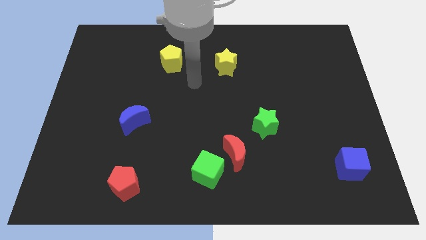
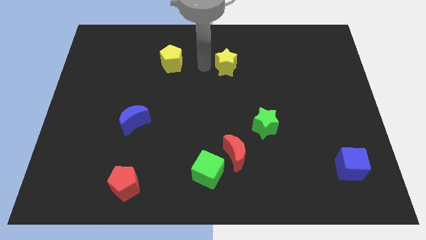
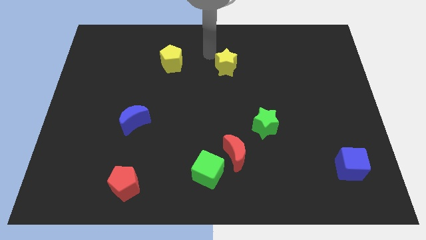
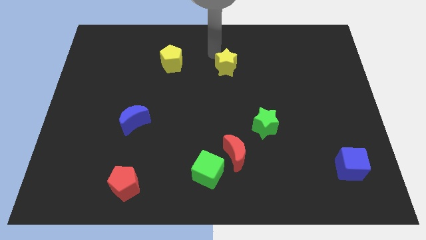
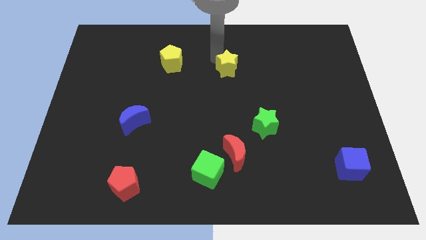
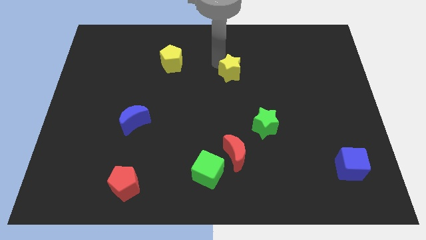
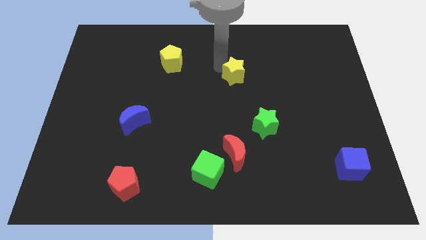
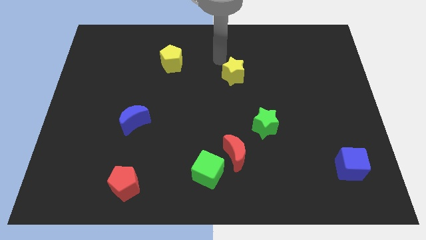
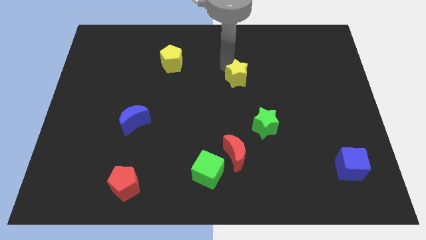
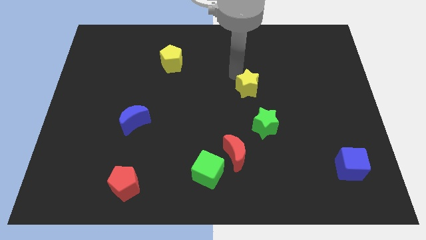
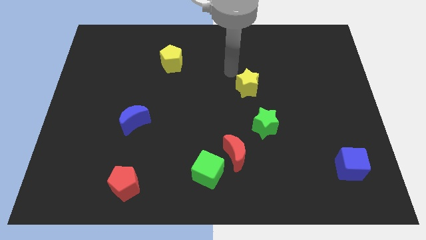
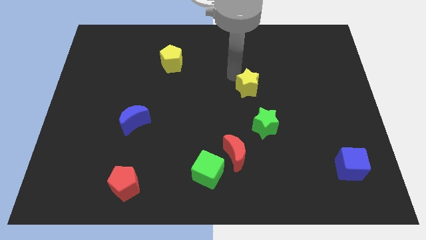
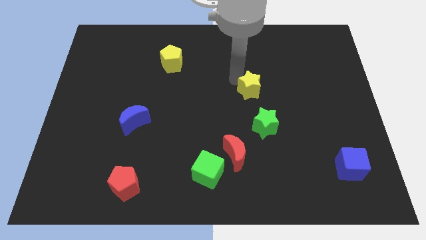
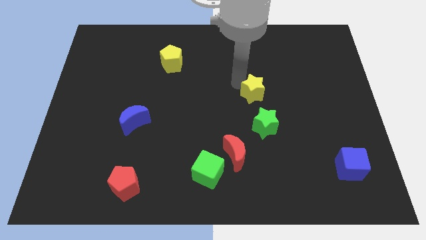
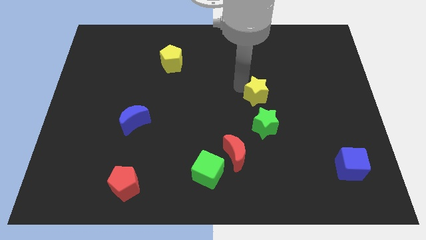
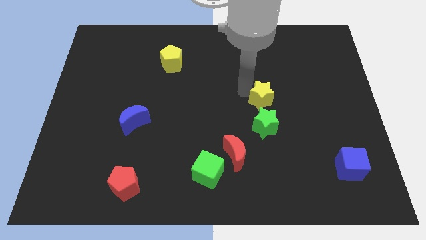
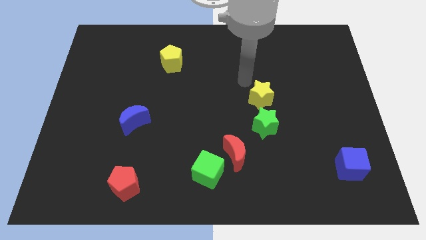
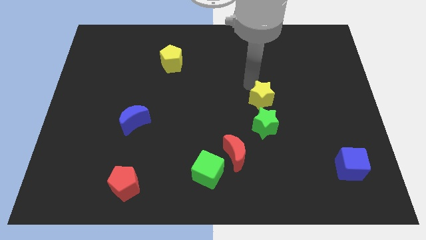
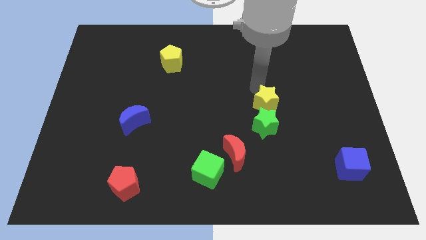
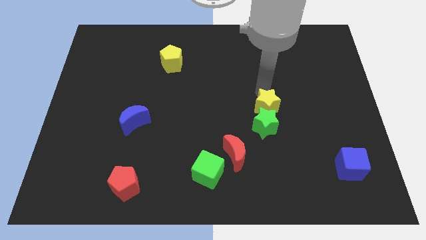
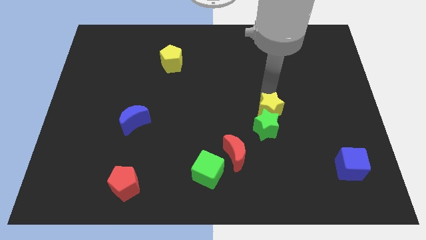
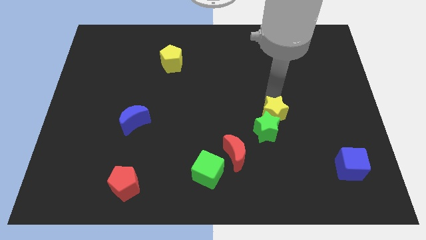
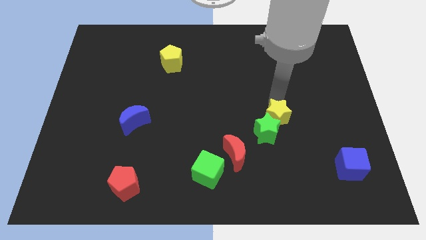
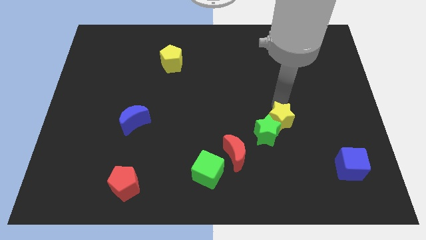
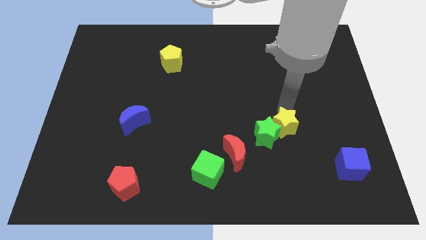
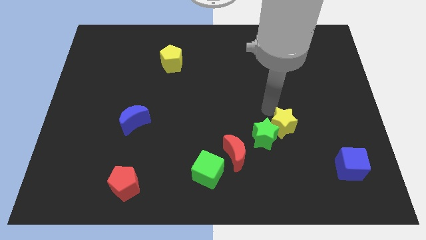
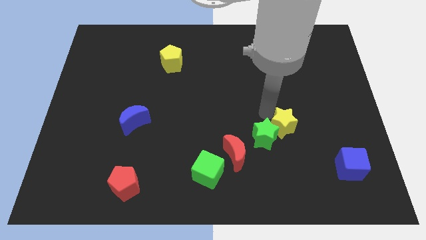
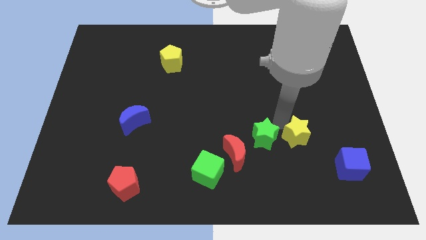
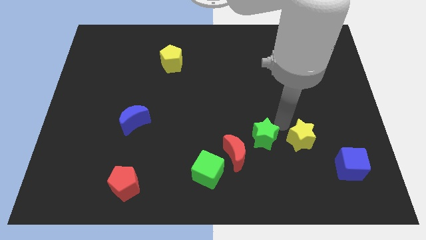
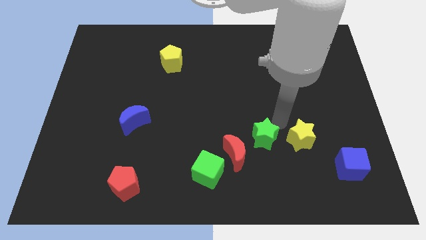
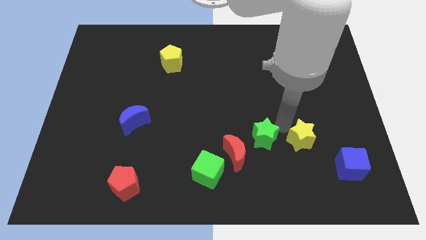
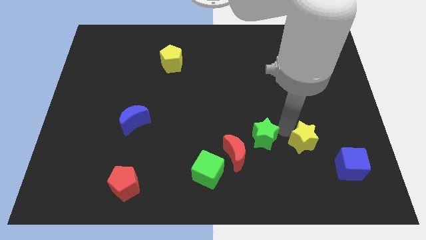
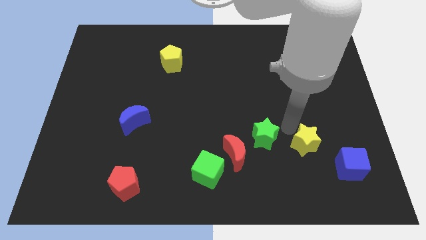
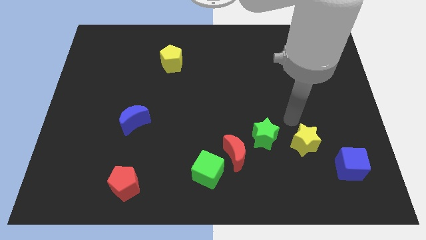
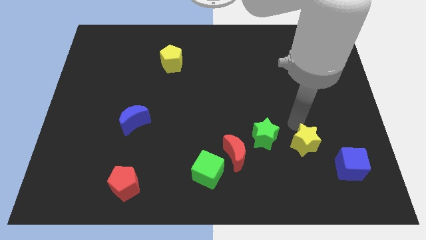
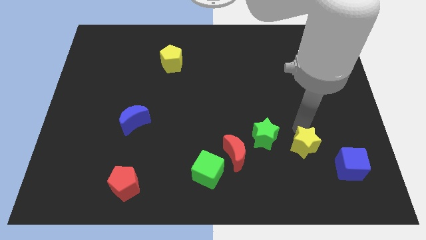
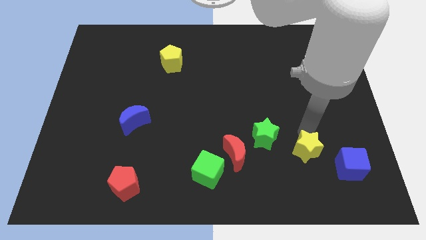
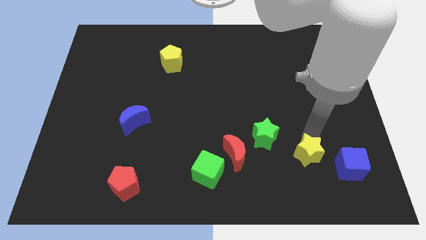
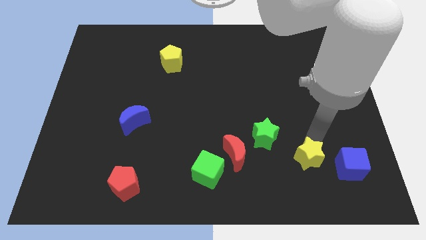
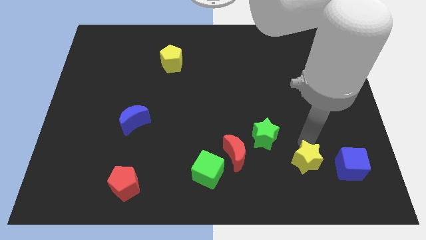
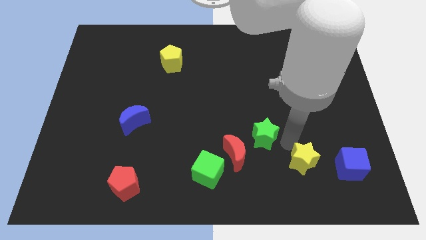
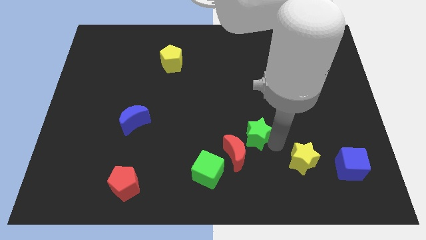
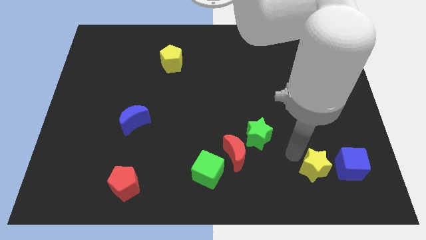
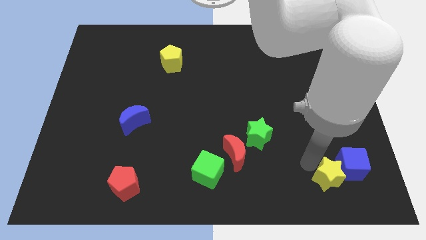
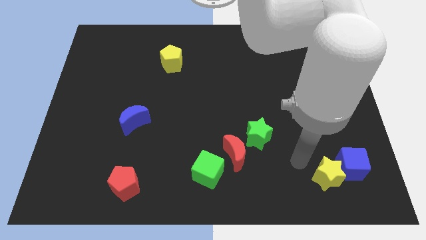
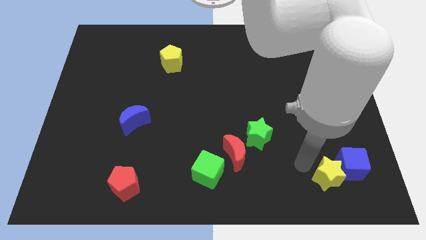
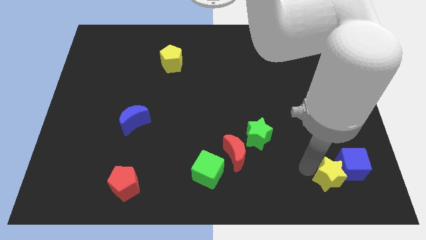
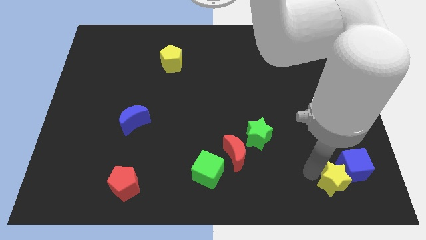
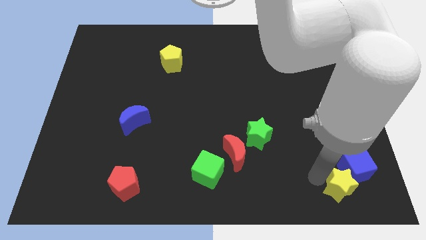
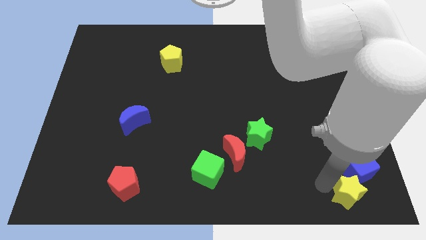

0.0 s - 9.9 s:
push the yellow star to the bottom right corner

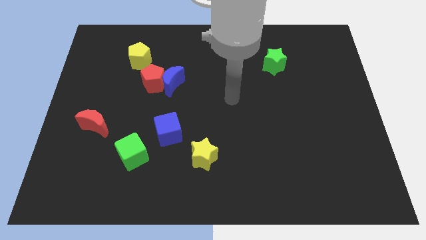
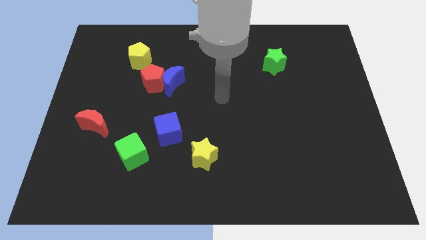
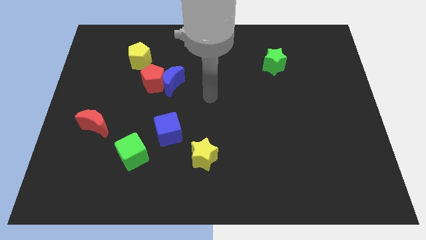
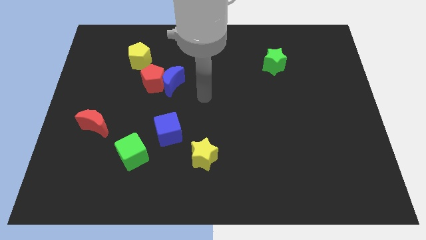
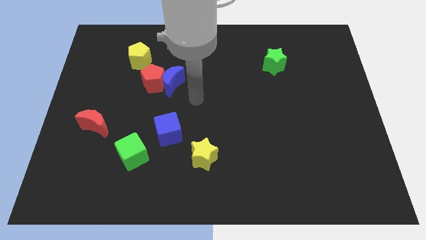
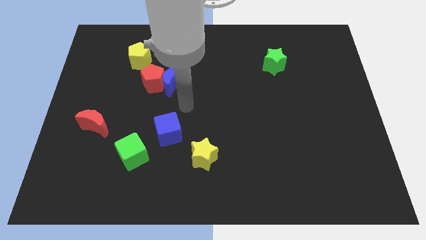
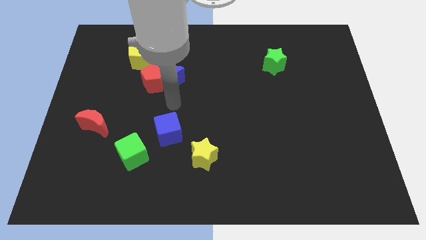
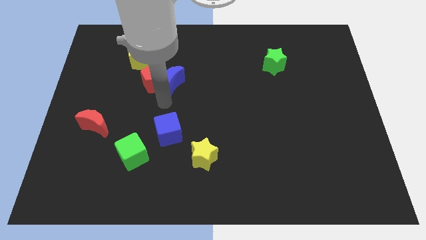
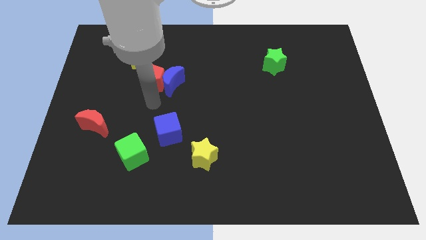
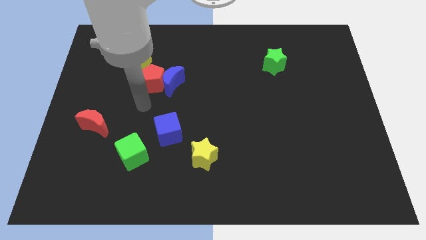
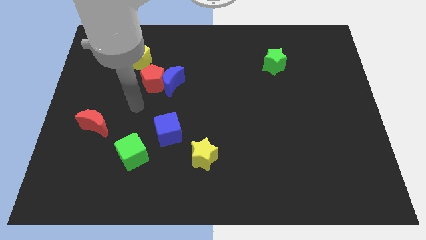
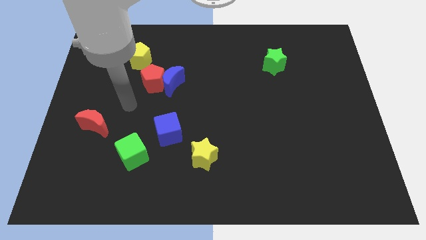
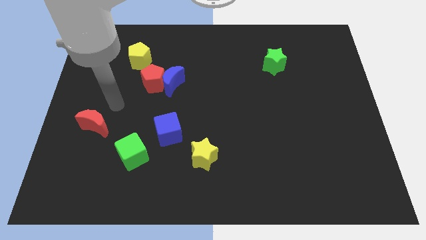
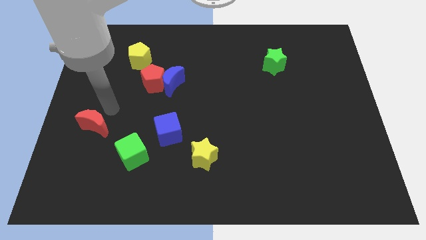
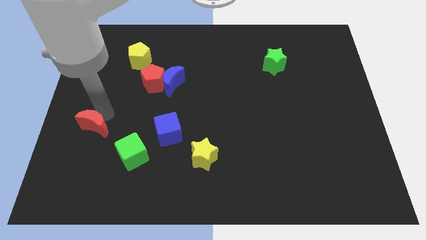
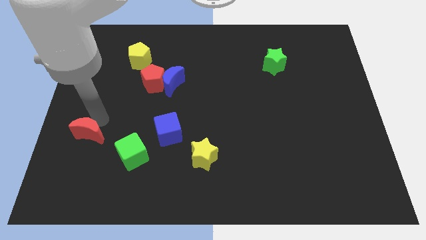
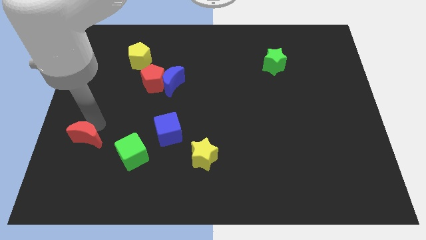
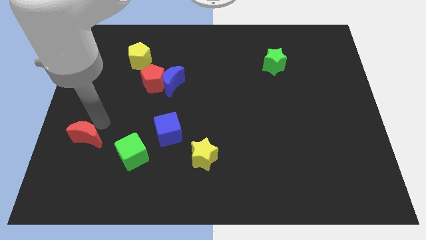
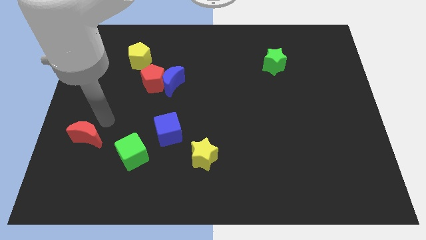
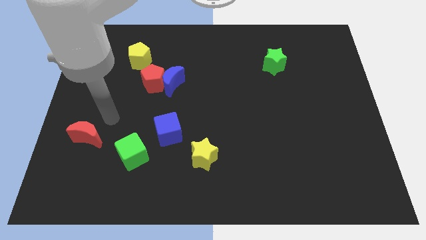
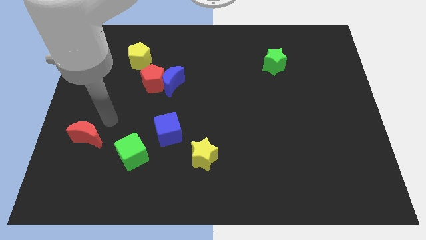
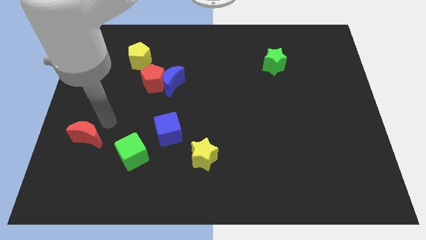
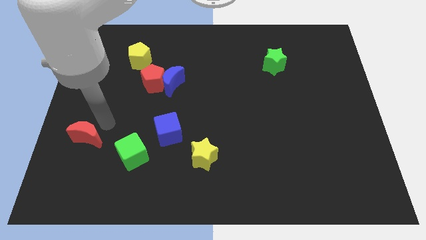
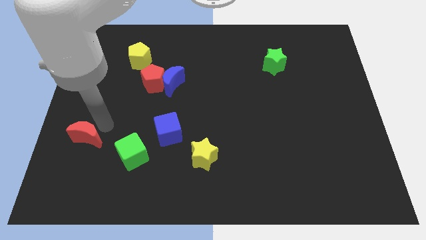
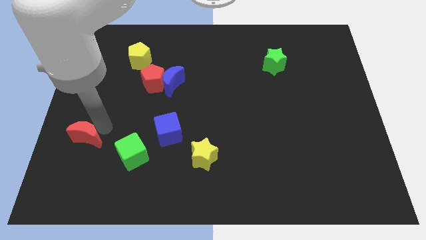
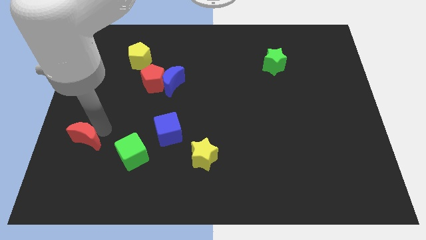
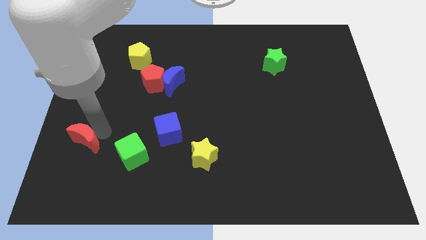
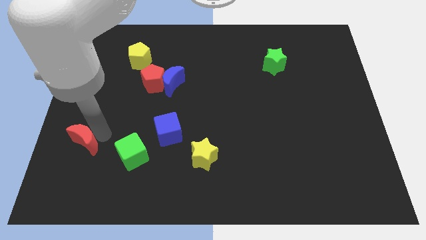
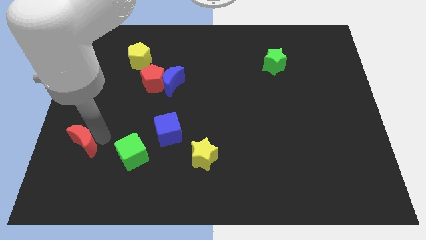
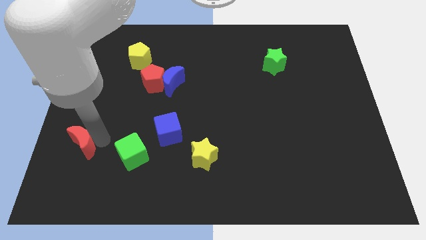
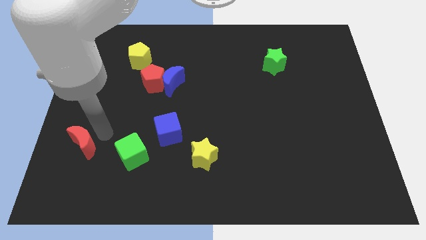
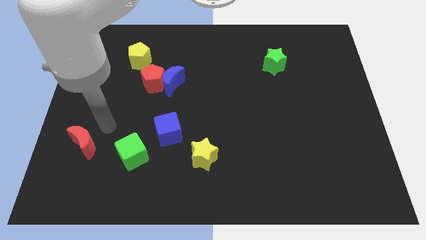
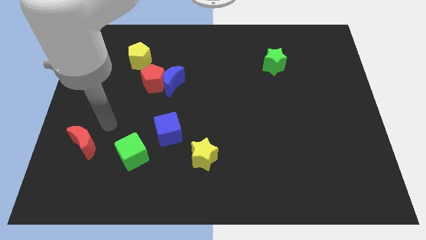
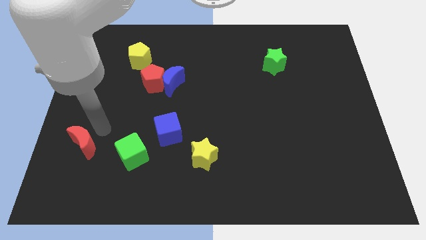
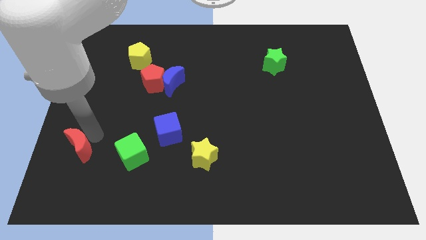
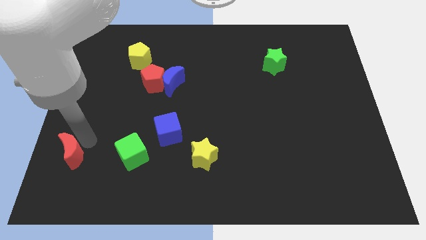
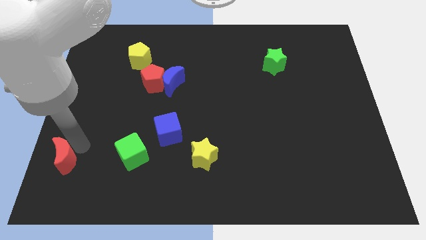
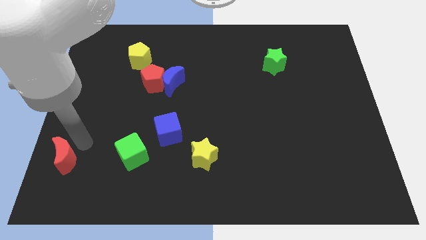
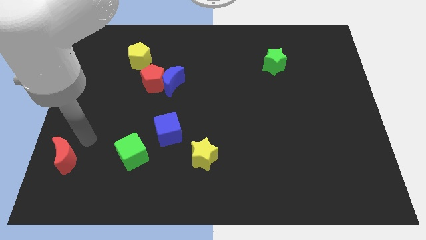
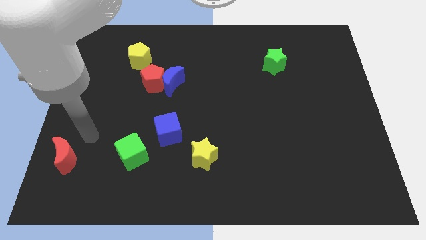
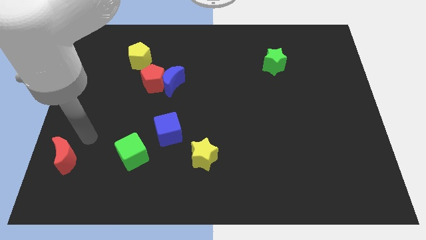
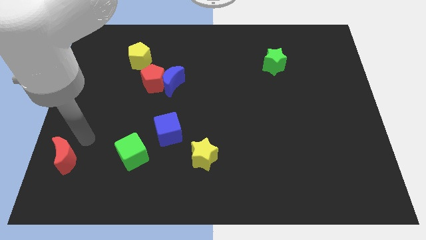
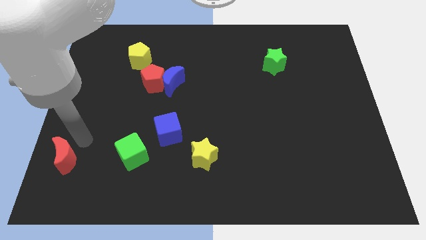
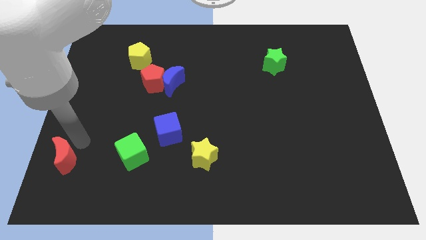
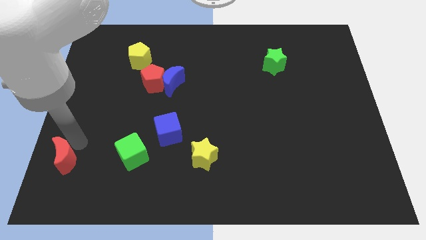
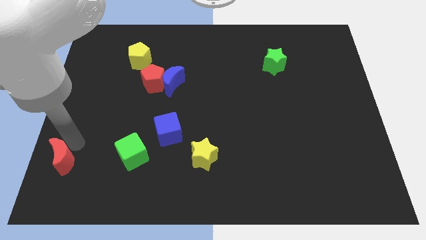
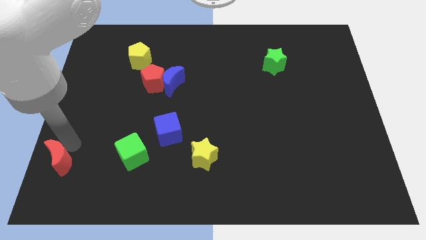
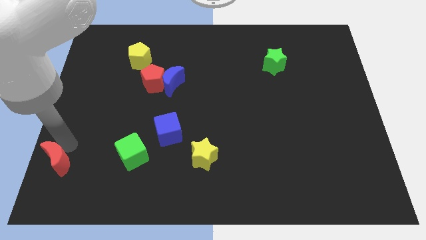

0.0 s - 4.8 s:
slide the red moon to the bottom left of the board
